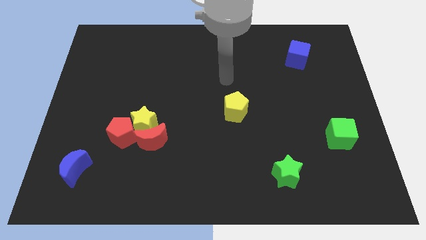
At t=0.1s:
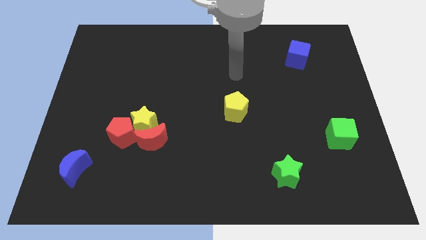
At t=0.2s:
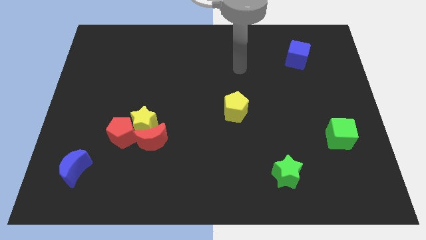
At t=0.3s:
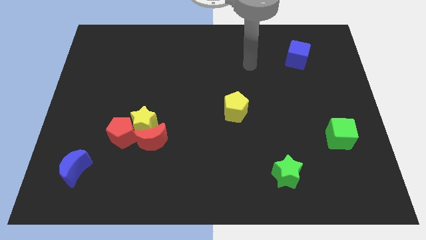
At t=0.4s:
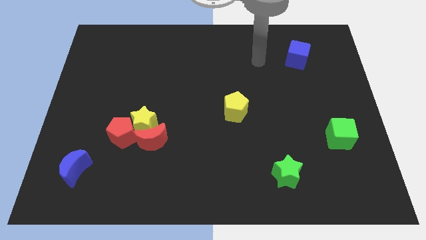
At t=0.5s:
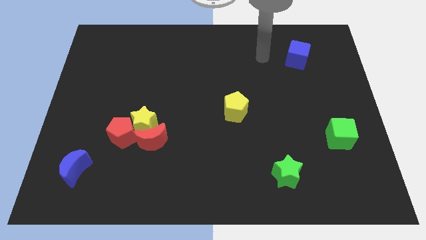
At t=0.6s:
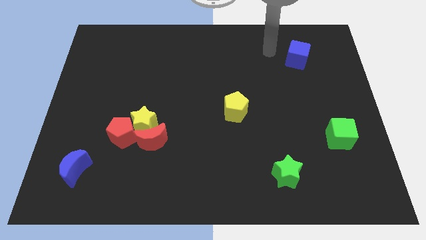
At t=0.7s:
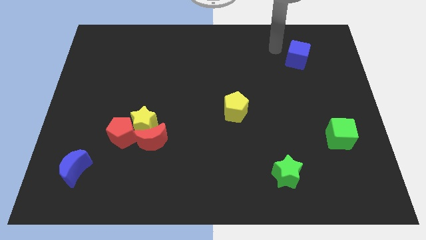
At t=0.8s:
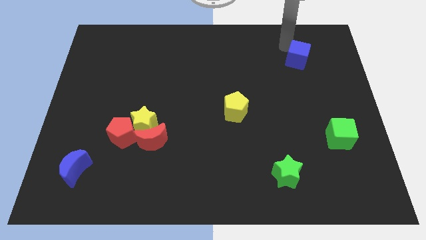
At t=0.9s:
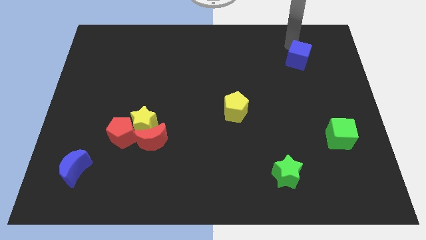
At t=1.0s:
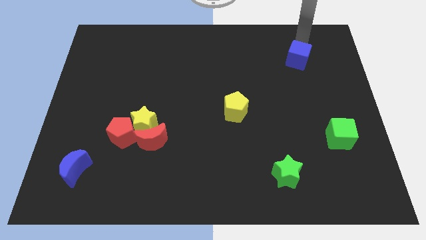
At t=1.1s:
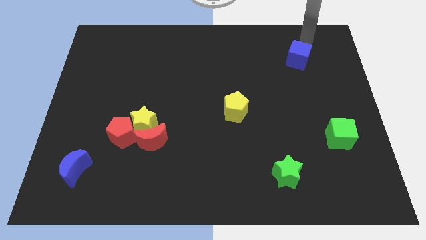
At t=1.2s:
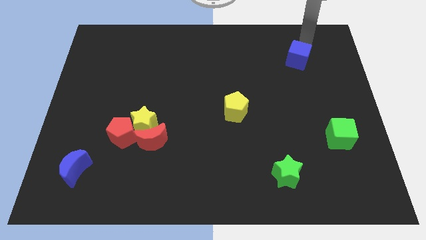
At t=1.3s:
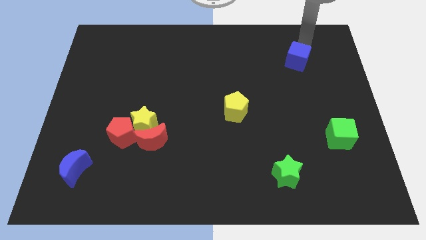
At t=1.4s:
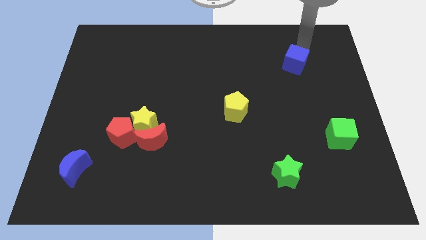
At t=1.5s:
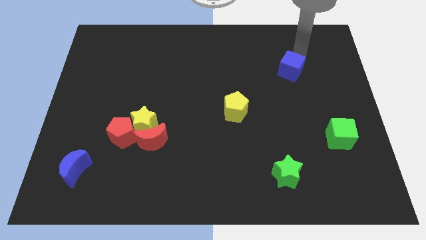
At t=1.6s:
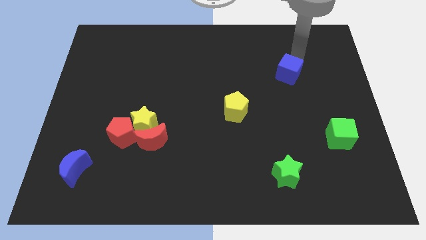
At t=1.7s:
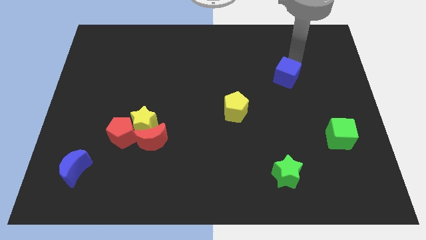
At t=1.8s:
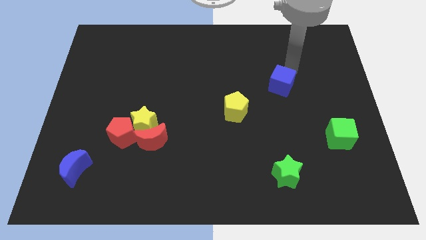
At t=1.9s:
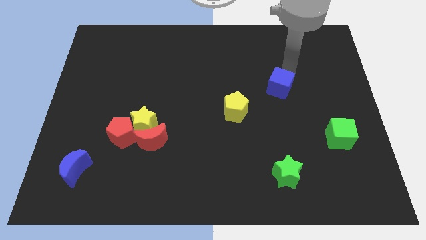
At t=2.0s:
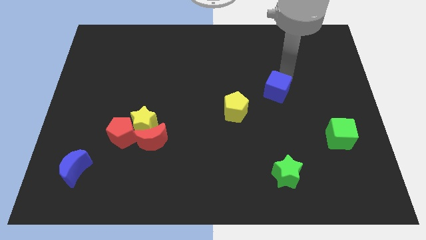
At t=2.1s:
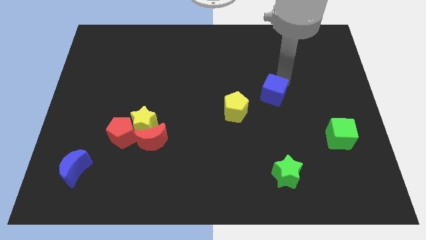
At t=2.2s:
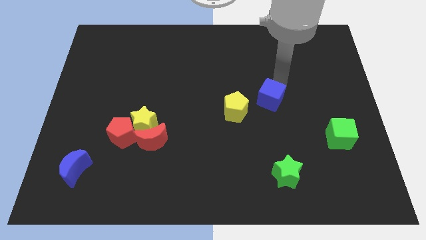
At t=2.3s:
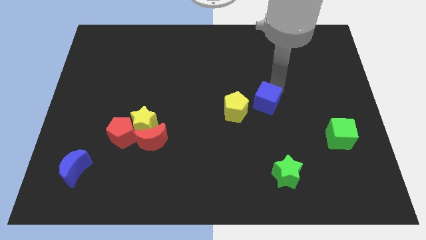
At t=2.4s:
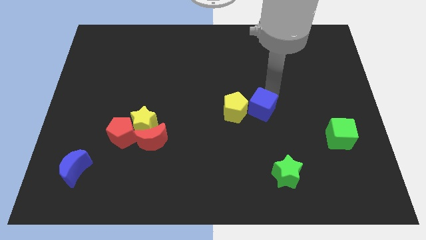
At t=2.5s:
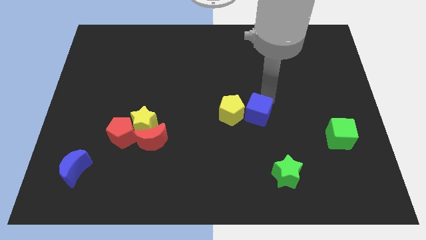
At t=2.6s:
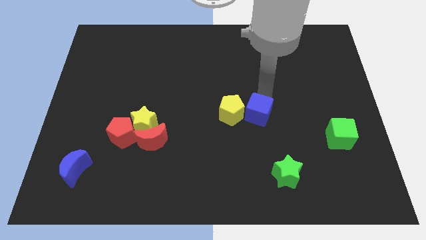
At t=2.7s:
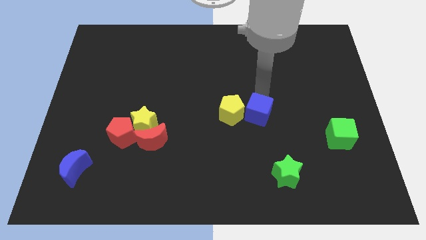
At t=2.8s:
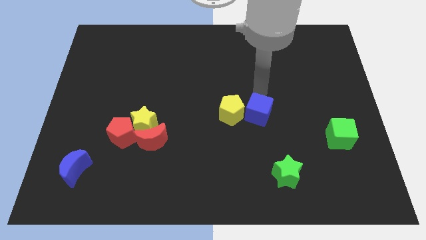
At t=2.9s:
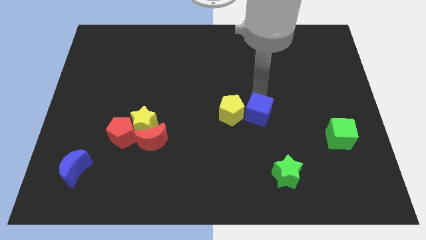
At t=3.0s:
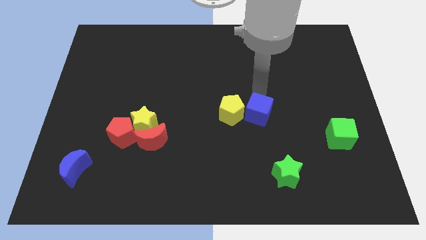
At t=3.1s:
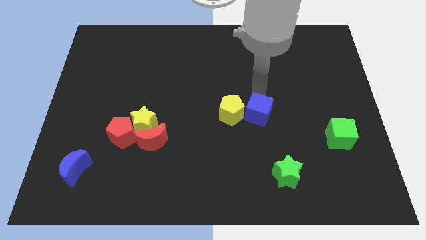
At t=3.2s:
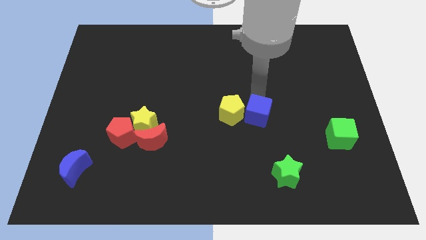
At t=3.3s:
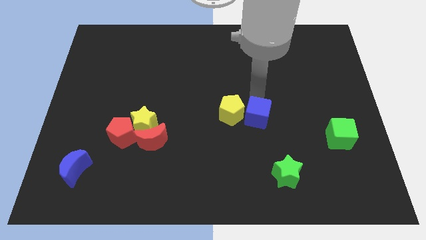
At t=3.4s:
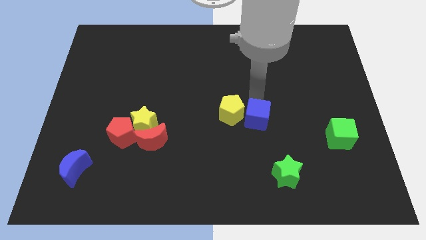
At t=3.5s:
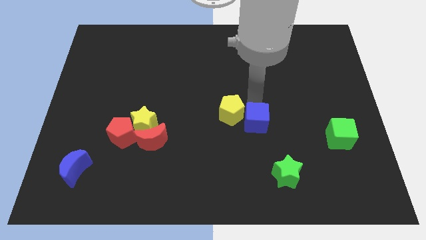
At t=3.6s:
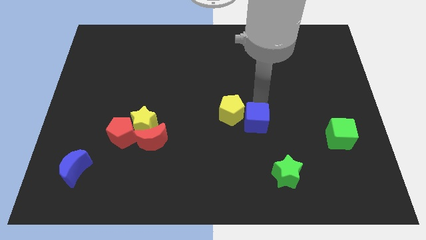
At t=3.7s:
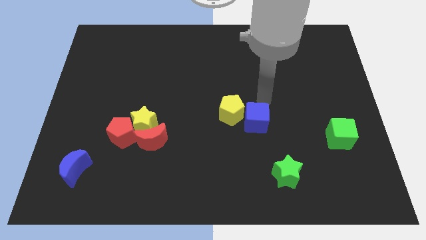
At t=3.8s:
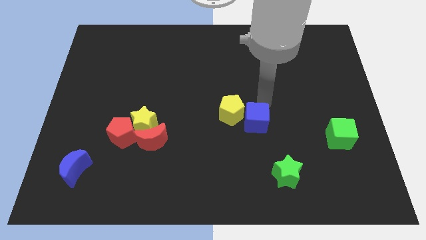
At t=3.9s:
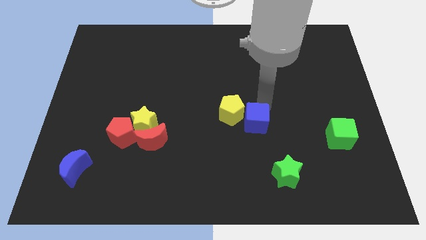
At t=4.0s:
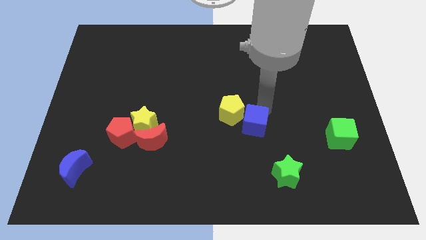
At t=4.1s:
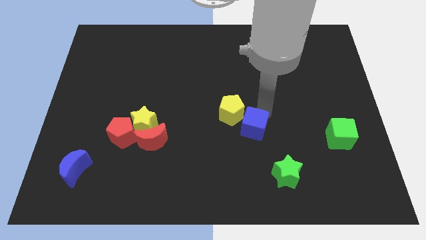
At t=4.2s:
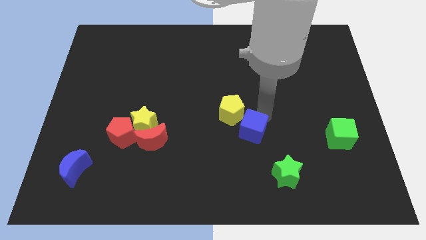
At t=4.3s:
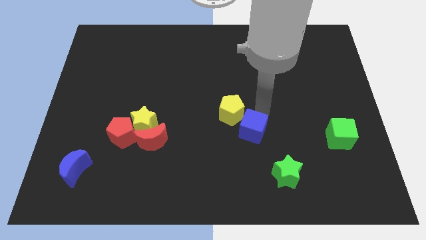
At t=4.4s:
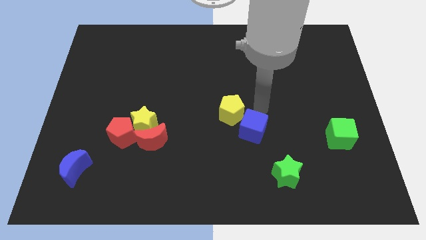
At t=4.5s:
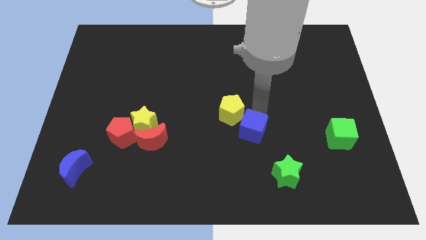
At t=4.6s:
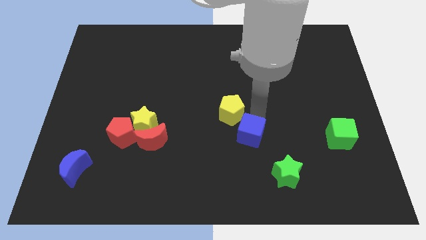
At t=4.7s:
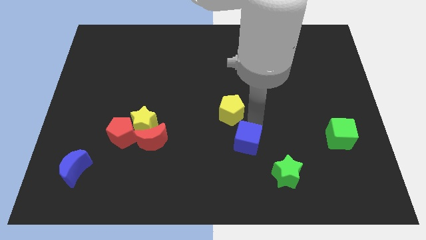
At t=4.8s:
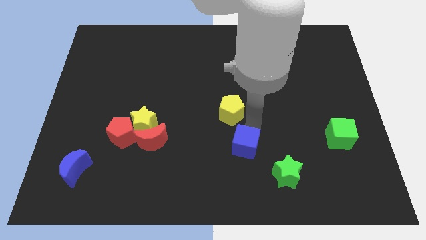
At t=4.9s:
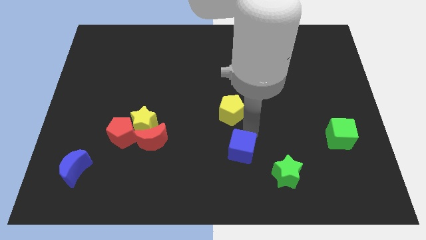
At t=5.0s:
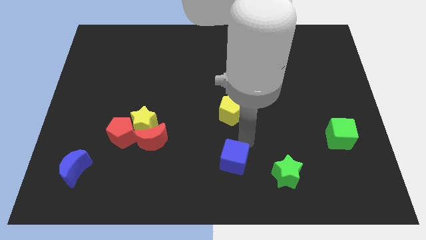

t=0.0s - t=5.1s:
move the blue cube to the bottom side
